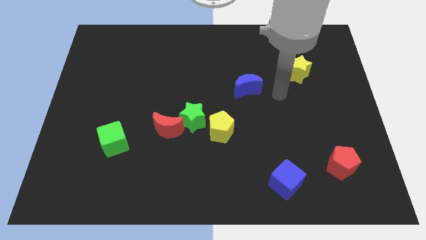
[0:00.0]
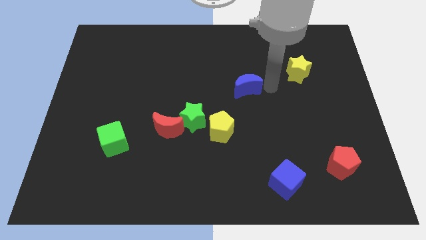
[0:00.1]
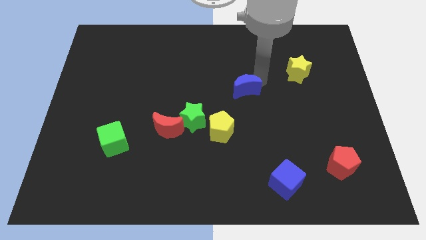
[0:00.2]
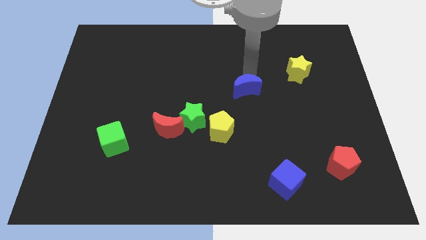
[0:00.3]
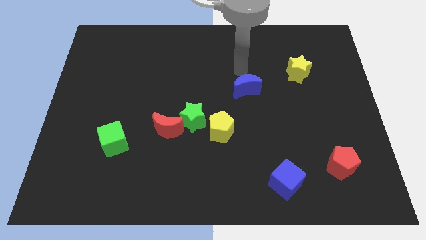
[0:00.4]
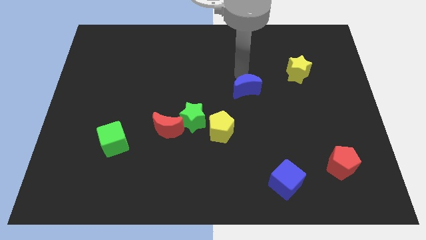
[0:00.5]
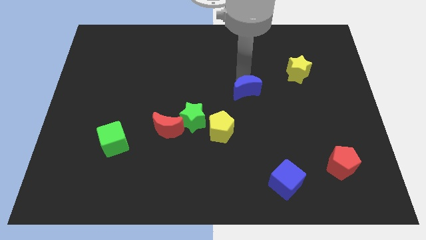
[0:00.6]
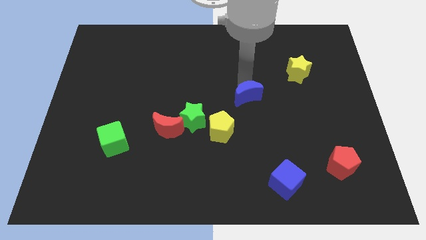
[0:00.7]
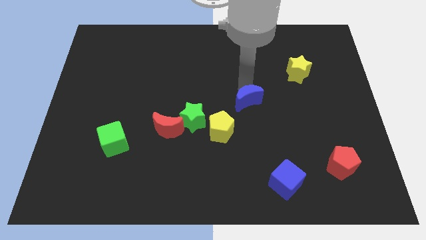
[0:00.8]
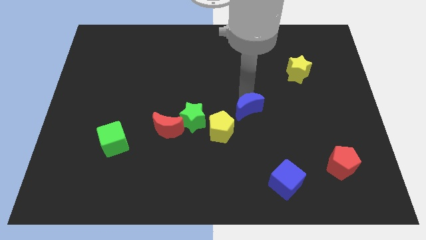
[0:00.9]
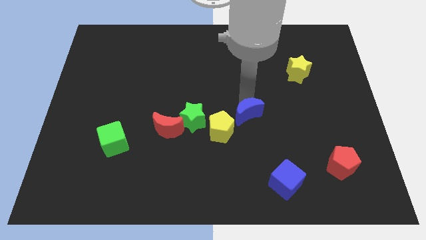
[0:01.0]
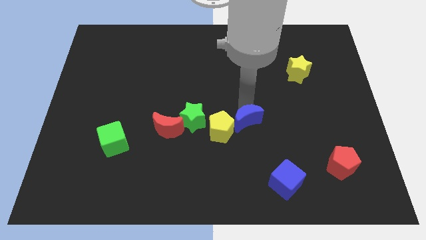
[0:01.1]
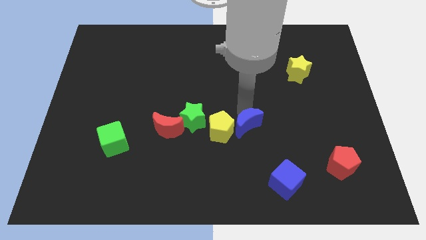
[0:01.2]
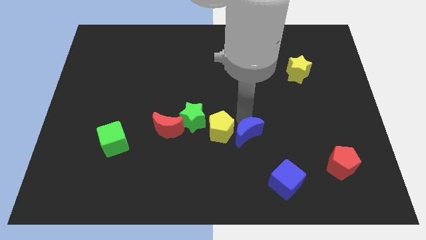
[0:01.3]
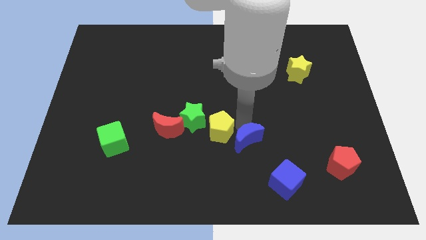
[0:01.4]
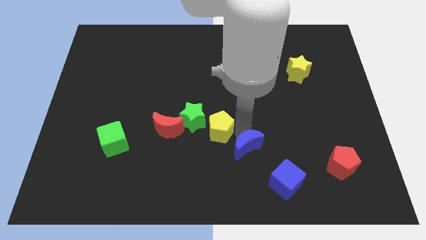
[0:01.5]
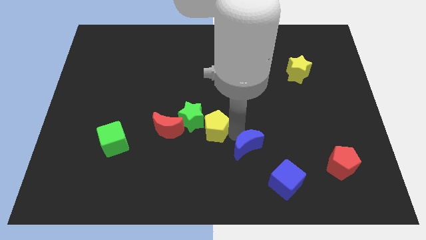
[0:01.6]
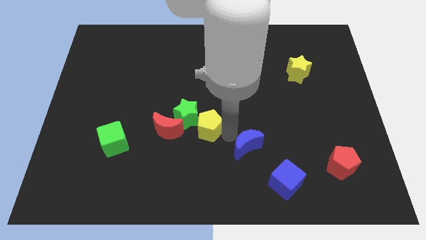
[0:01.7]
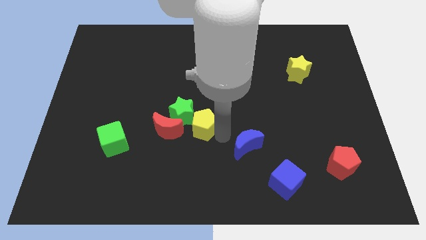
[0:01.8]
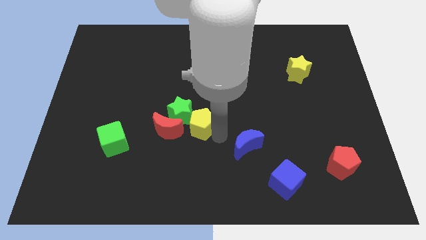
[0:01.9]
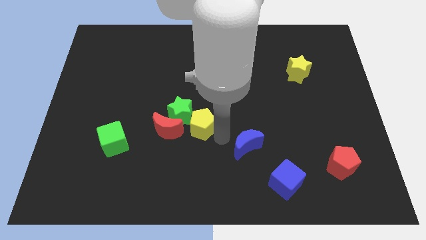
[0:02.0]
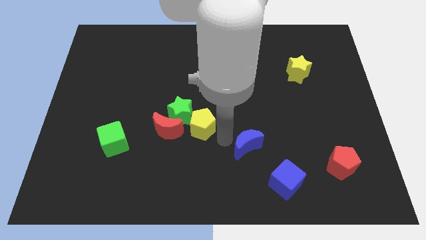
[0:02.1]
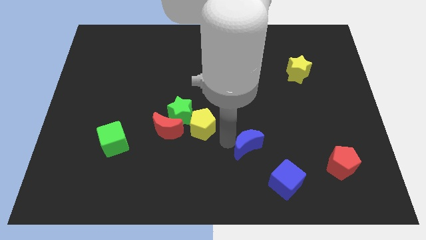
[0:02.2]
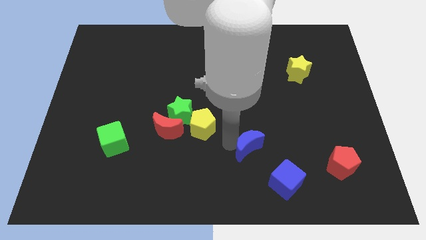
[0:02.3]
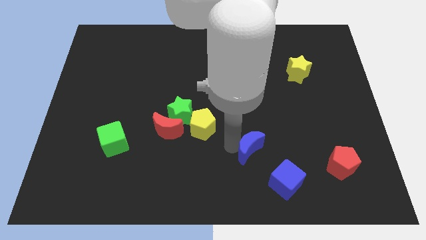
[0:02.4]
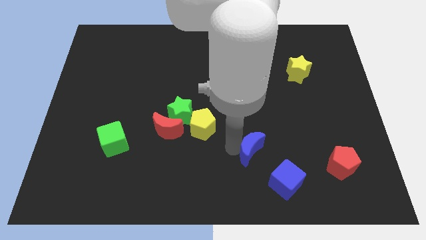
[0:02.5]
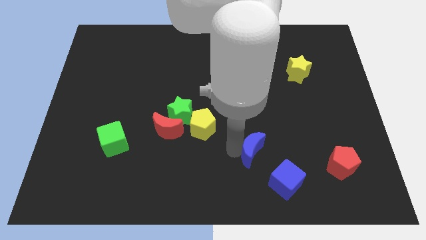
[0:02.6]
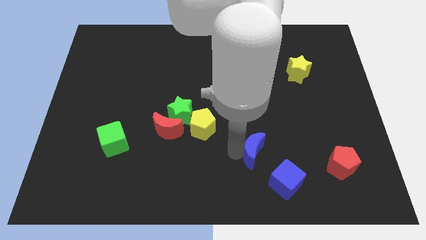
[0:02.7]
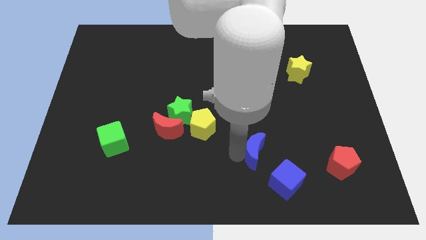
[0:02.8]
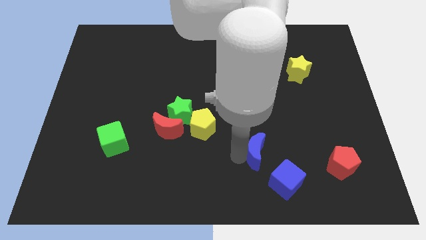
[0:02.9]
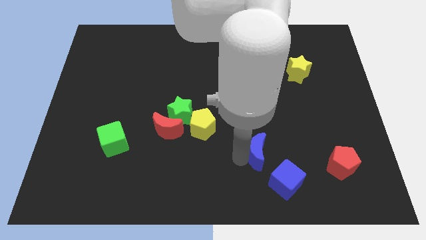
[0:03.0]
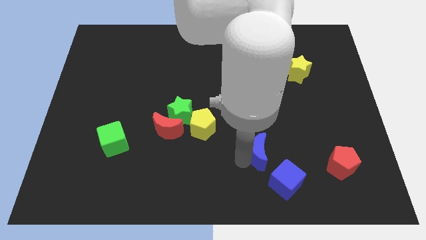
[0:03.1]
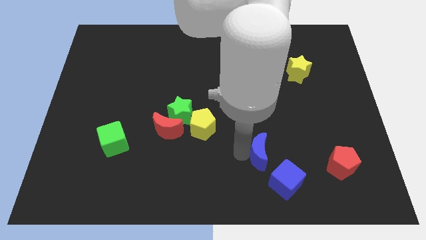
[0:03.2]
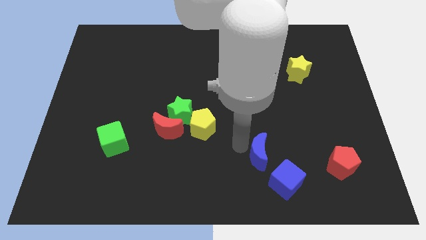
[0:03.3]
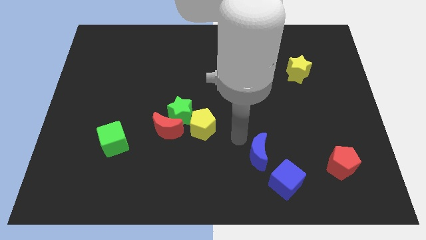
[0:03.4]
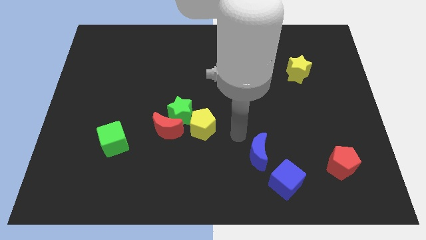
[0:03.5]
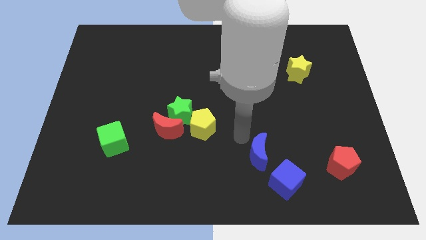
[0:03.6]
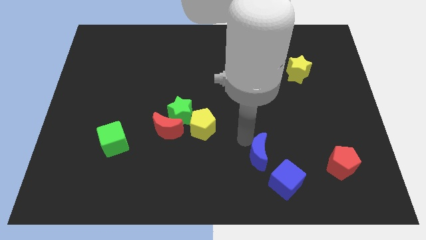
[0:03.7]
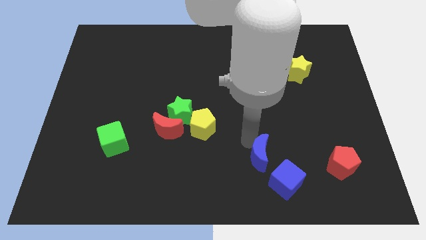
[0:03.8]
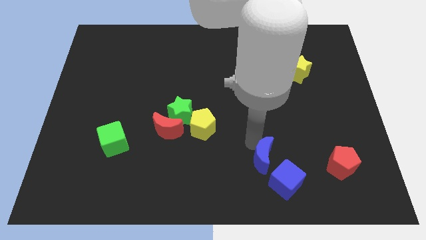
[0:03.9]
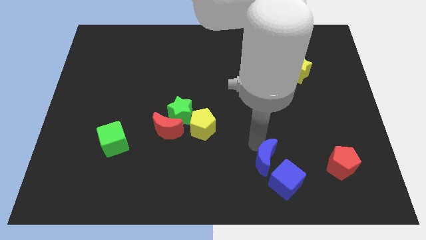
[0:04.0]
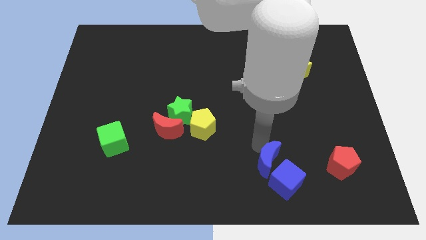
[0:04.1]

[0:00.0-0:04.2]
push the blue moon next to the blue cube

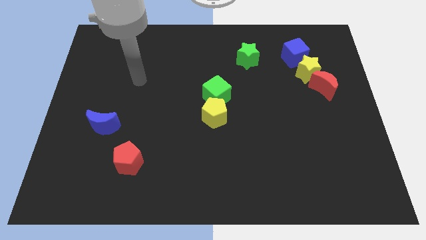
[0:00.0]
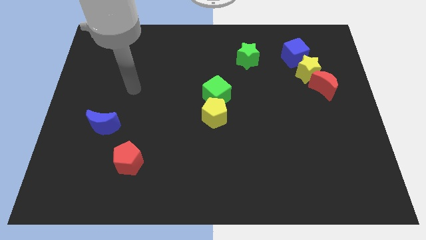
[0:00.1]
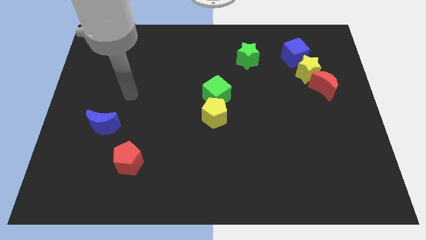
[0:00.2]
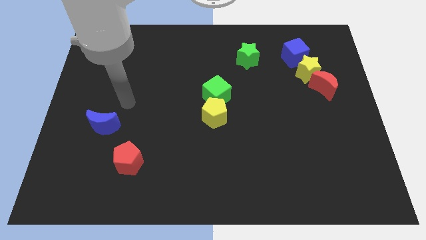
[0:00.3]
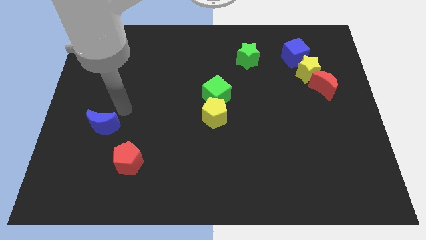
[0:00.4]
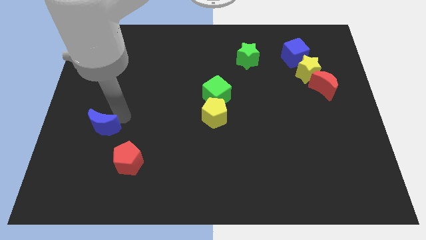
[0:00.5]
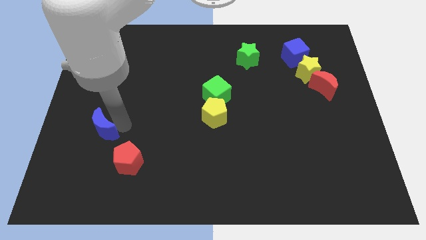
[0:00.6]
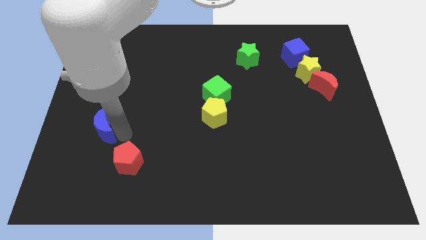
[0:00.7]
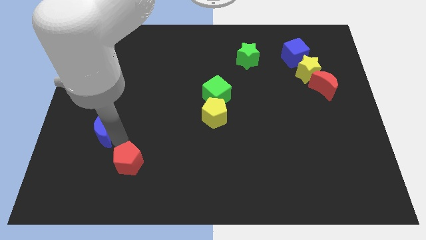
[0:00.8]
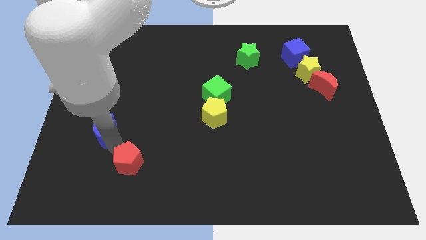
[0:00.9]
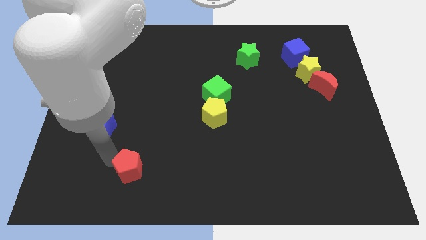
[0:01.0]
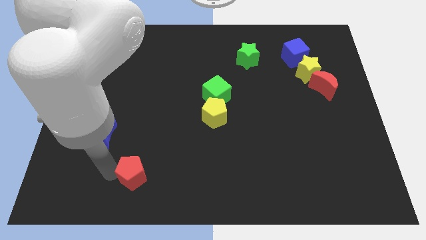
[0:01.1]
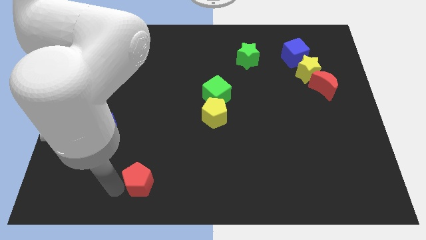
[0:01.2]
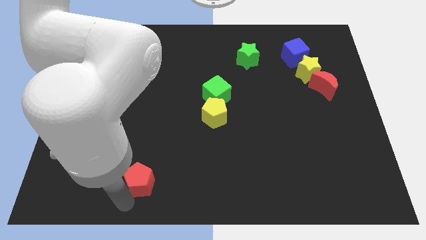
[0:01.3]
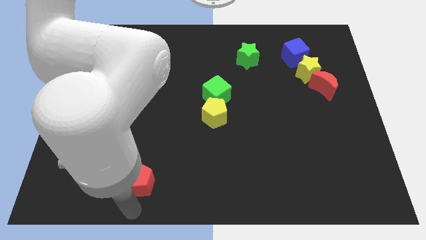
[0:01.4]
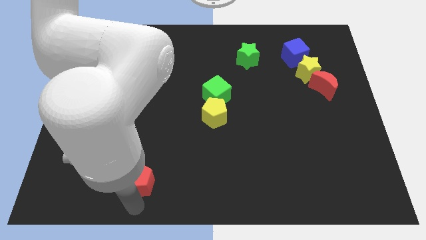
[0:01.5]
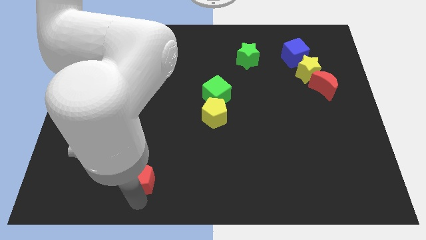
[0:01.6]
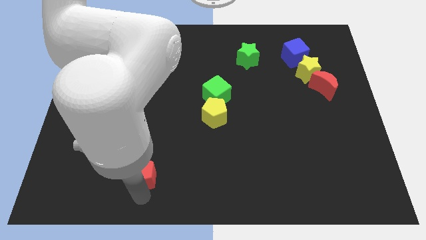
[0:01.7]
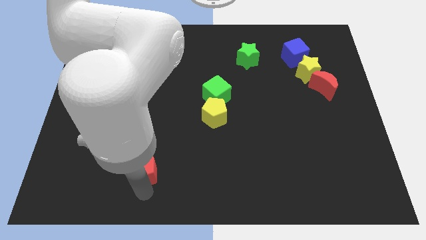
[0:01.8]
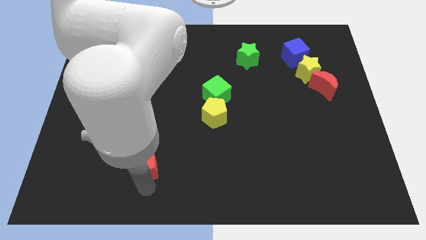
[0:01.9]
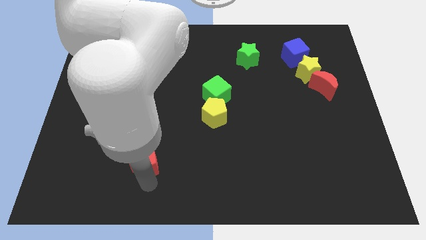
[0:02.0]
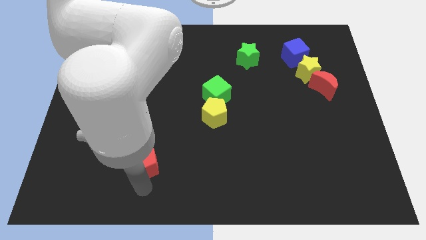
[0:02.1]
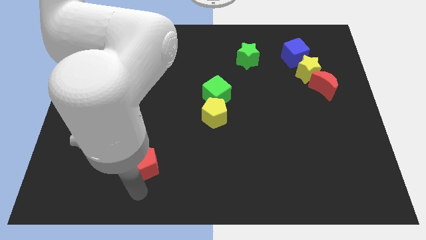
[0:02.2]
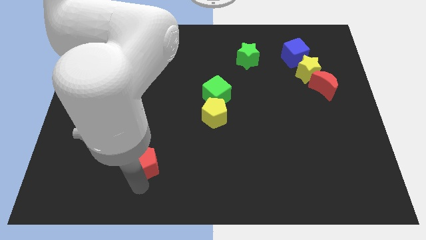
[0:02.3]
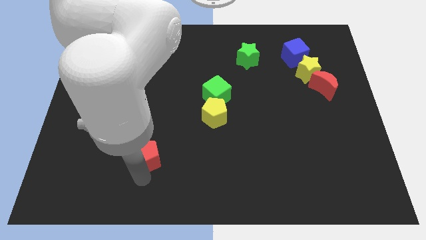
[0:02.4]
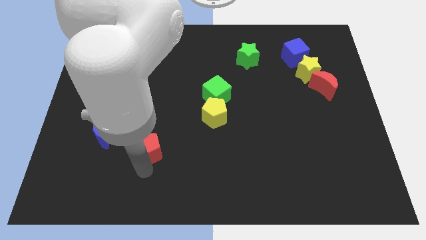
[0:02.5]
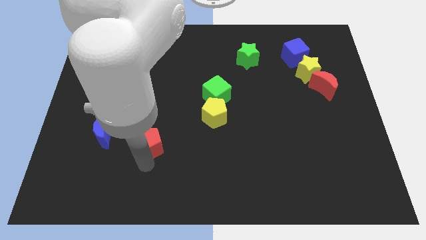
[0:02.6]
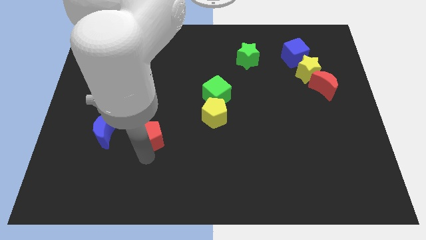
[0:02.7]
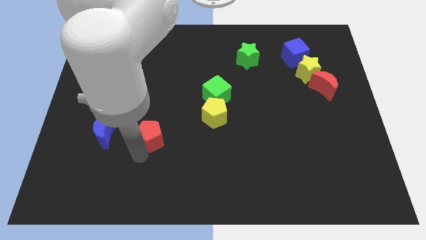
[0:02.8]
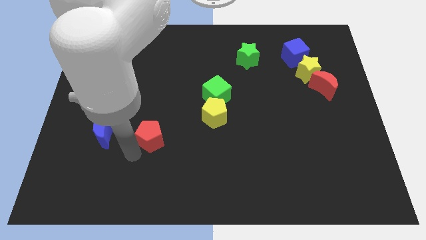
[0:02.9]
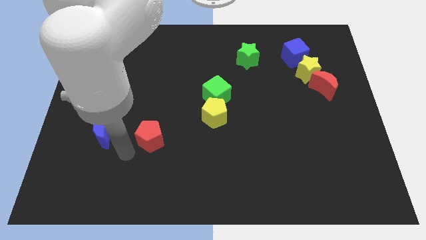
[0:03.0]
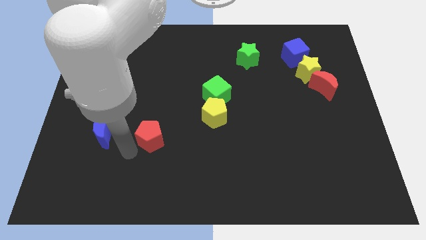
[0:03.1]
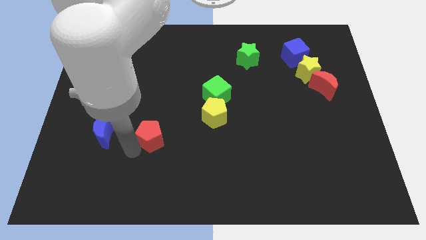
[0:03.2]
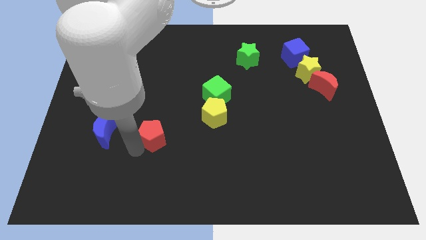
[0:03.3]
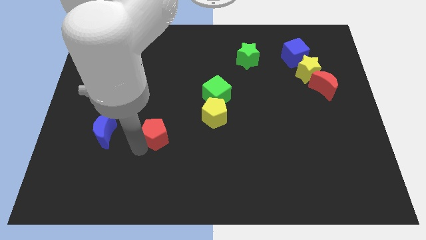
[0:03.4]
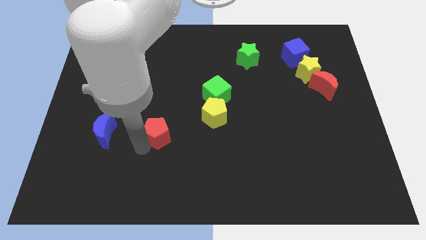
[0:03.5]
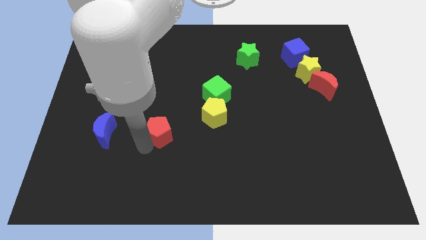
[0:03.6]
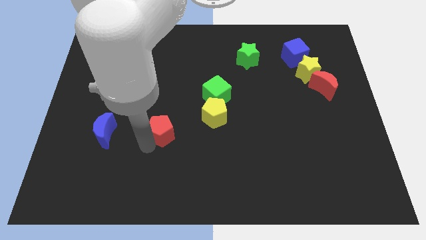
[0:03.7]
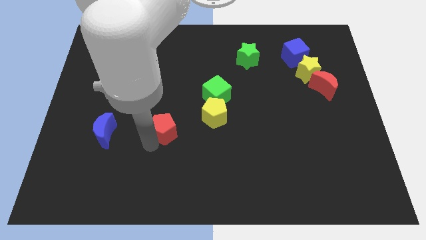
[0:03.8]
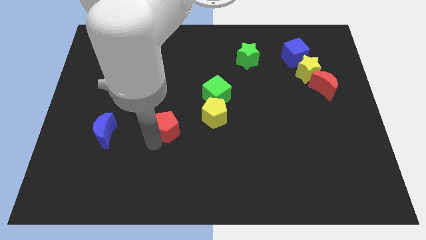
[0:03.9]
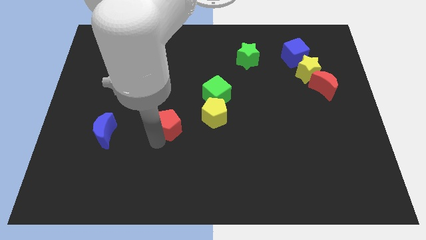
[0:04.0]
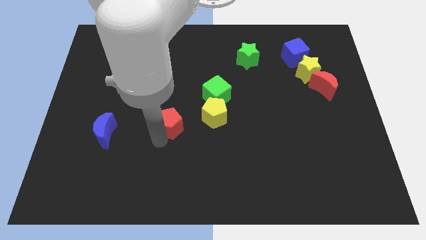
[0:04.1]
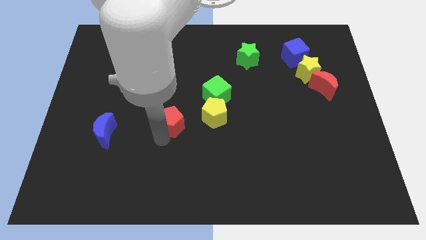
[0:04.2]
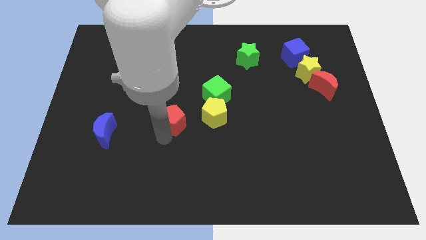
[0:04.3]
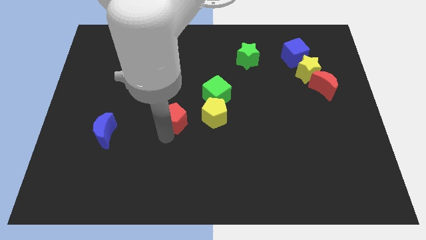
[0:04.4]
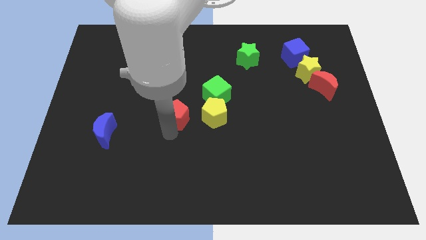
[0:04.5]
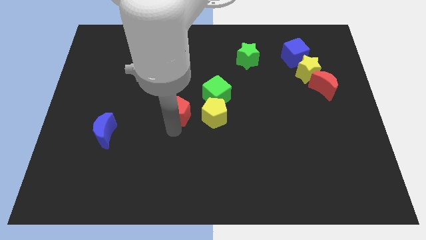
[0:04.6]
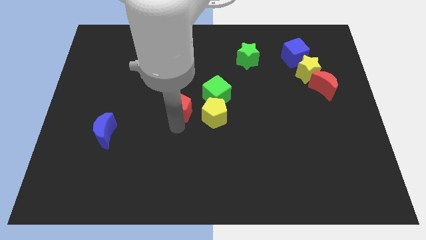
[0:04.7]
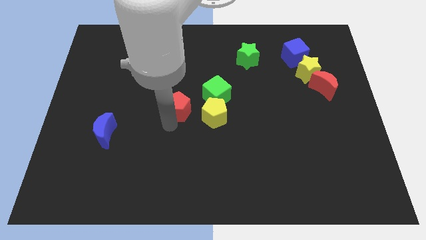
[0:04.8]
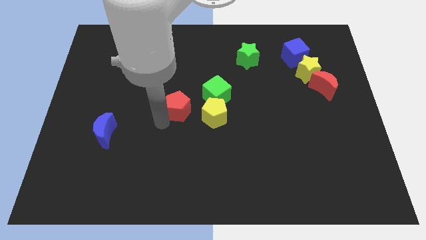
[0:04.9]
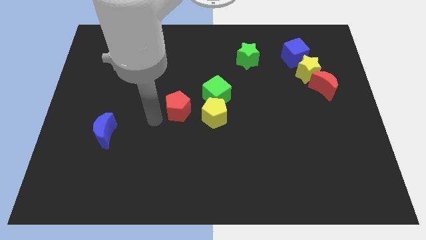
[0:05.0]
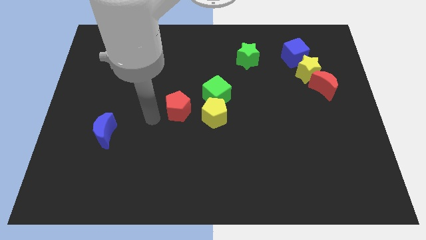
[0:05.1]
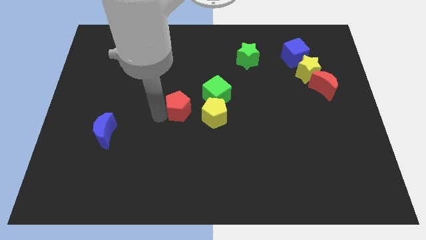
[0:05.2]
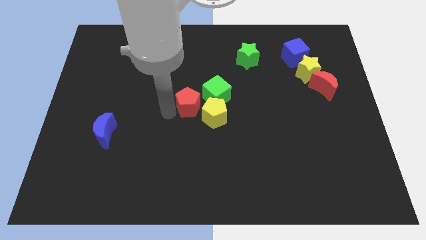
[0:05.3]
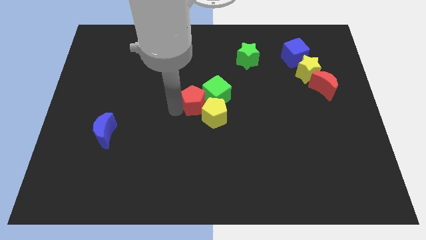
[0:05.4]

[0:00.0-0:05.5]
put the red pentagon towards the green cube
